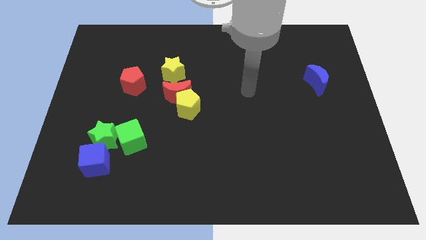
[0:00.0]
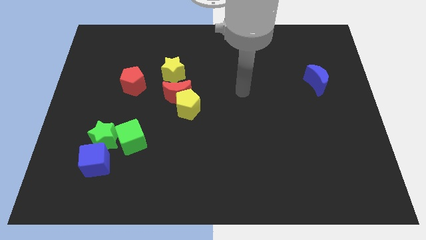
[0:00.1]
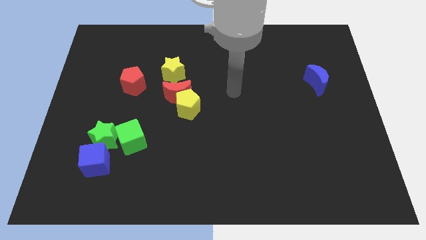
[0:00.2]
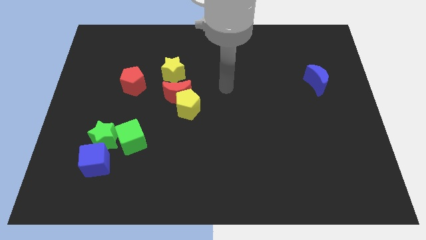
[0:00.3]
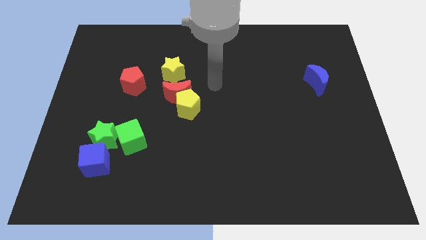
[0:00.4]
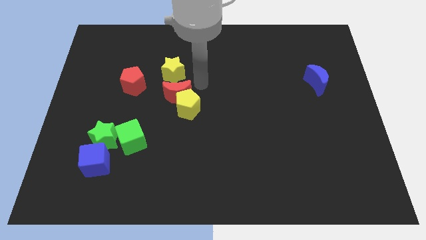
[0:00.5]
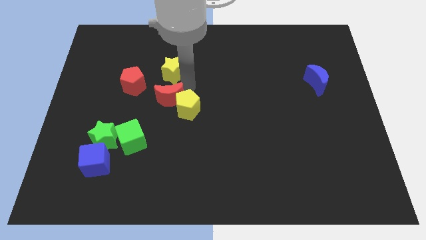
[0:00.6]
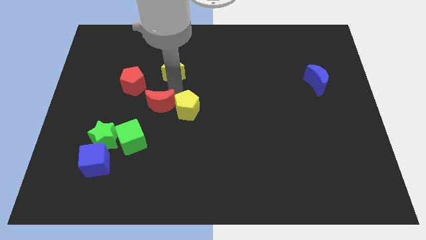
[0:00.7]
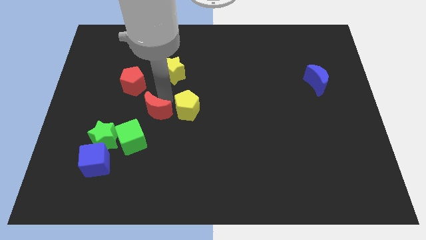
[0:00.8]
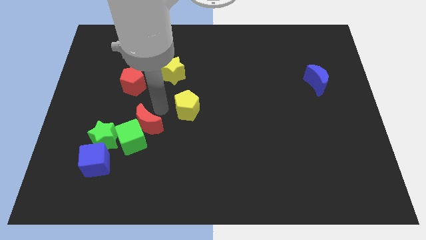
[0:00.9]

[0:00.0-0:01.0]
move the yellow pentagon away from the red moon

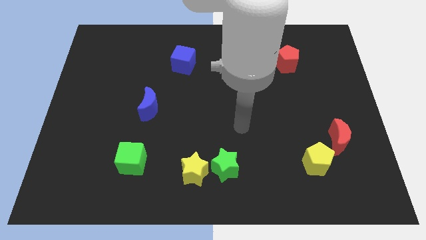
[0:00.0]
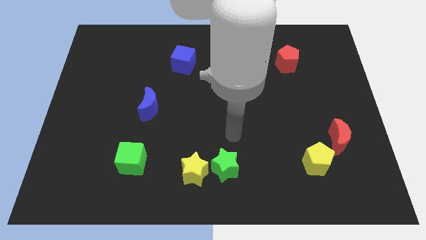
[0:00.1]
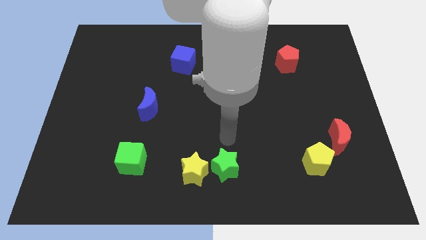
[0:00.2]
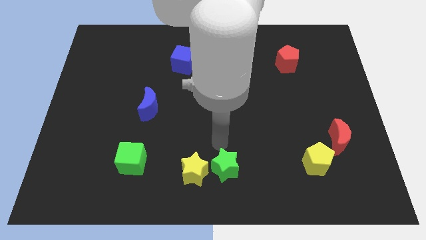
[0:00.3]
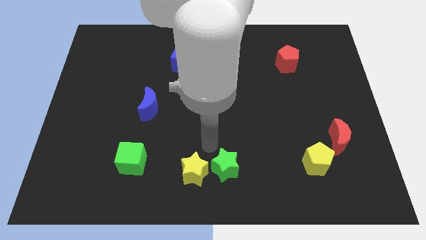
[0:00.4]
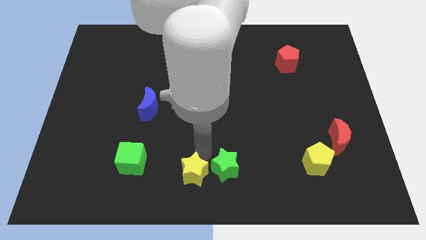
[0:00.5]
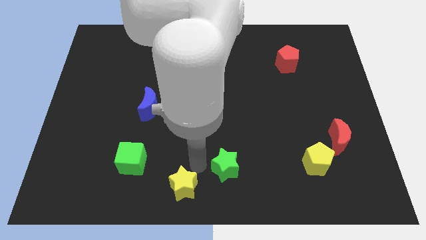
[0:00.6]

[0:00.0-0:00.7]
pull the green star apart from the yellow star

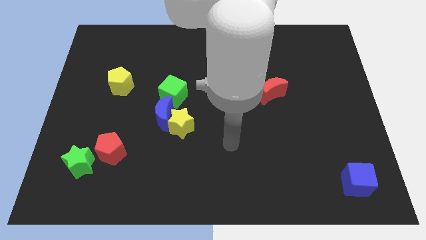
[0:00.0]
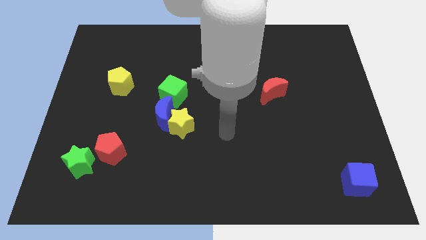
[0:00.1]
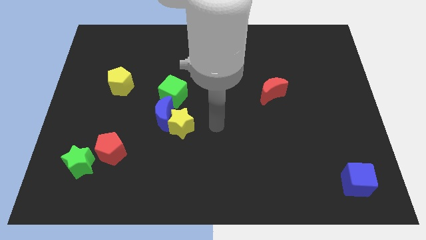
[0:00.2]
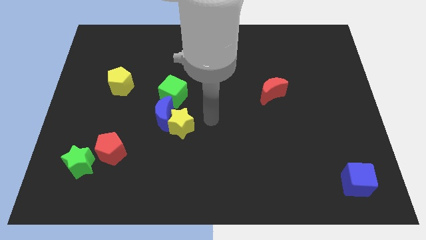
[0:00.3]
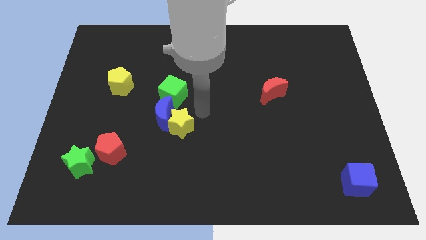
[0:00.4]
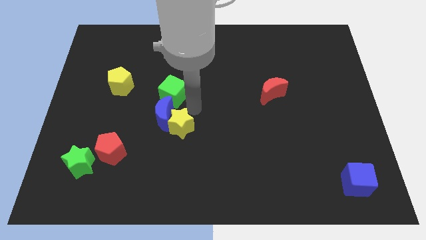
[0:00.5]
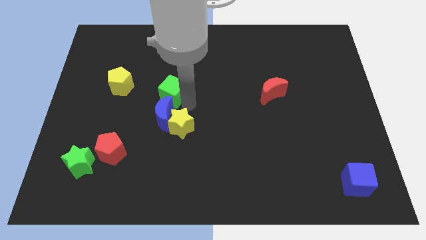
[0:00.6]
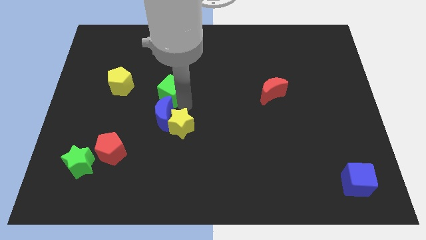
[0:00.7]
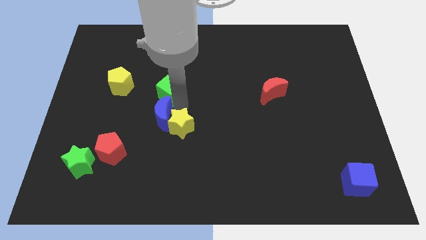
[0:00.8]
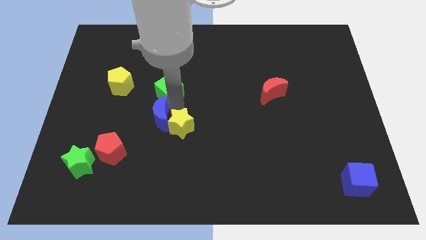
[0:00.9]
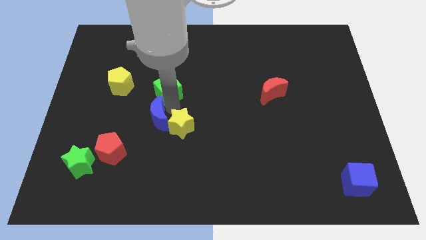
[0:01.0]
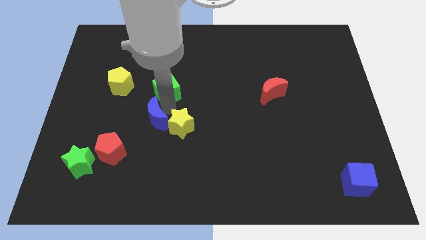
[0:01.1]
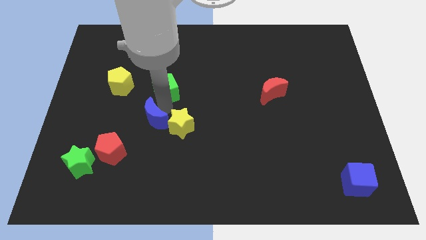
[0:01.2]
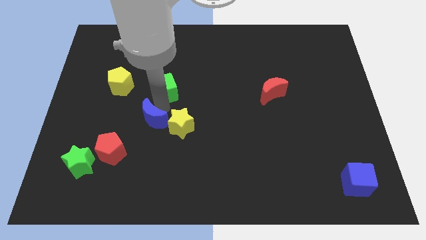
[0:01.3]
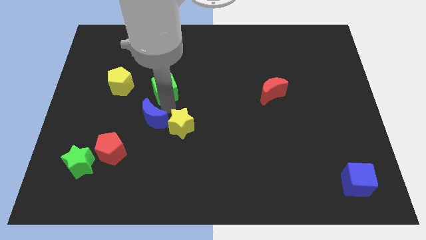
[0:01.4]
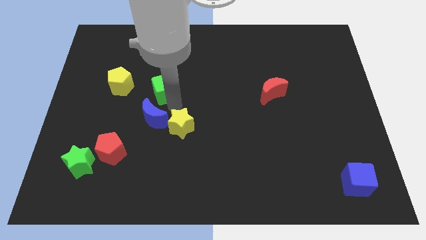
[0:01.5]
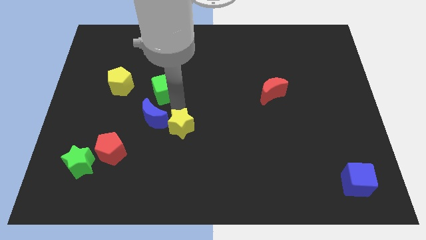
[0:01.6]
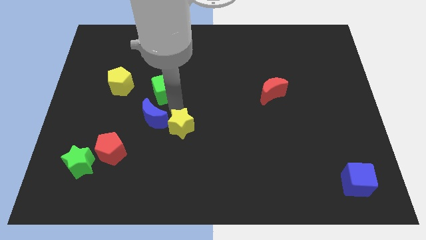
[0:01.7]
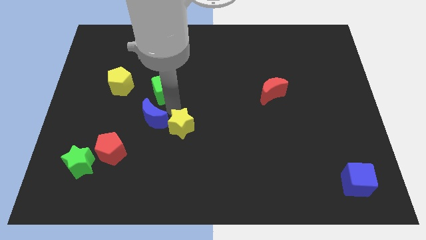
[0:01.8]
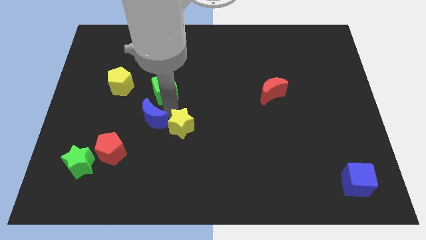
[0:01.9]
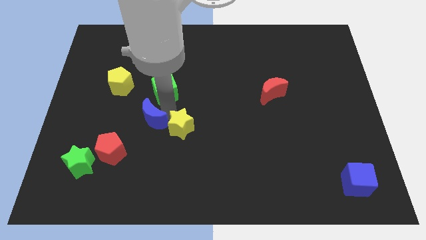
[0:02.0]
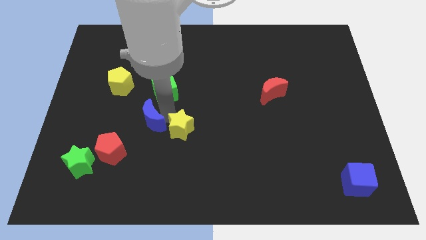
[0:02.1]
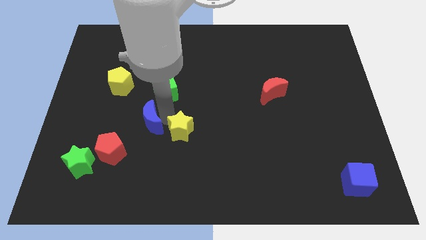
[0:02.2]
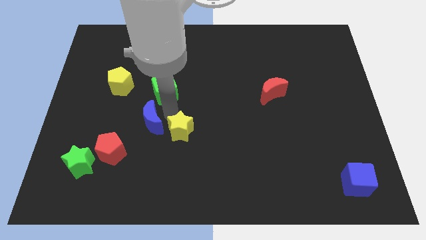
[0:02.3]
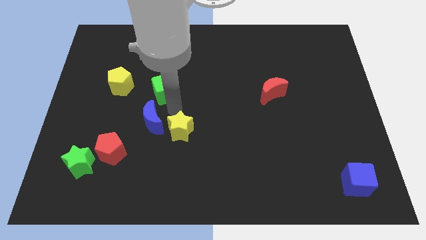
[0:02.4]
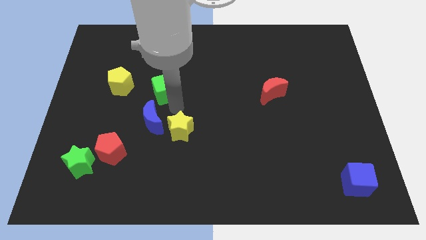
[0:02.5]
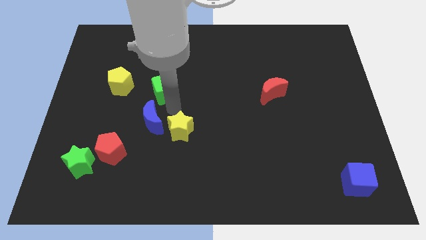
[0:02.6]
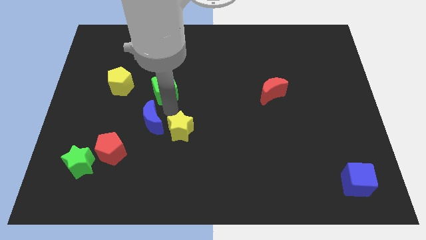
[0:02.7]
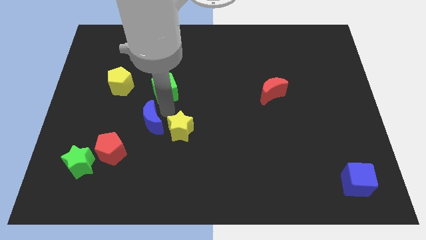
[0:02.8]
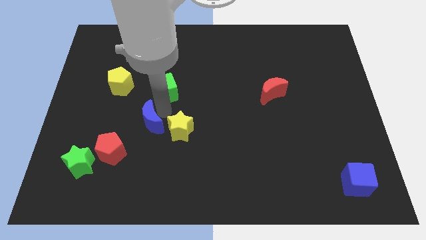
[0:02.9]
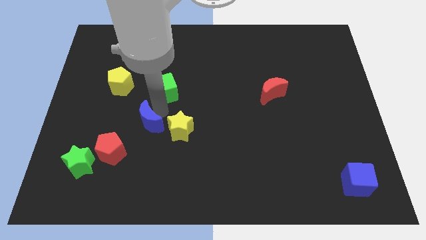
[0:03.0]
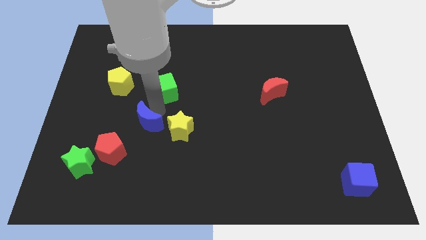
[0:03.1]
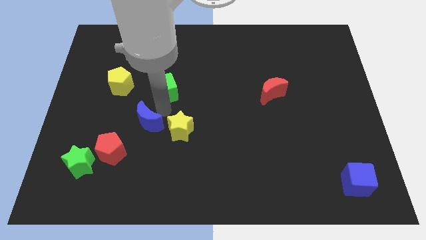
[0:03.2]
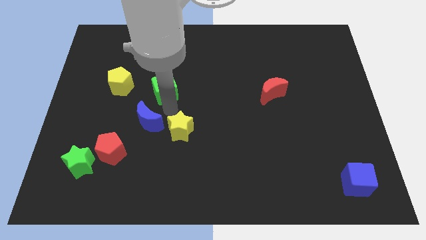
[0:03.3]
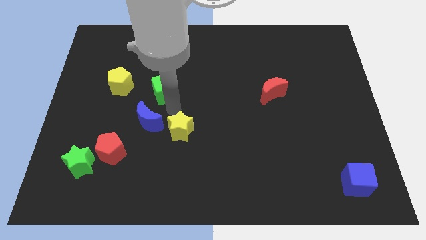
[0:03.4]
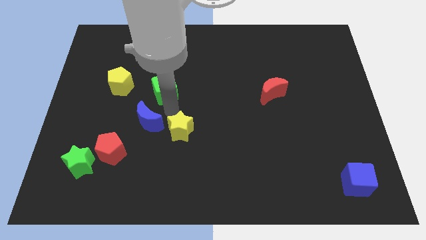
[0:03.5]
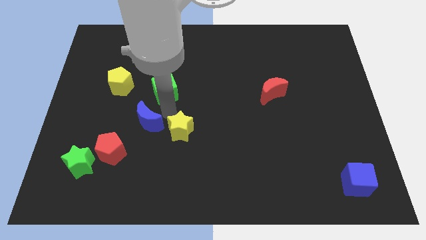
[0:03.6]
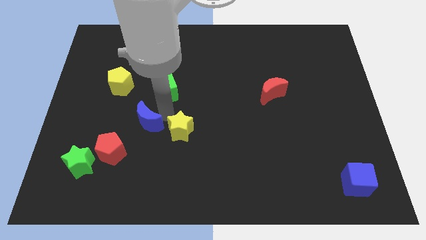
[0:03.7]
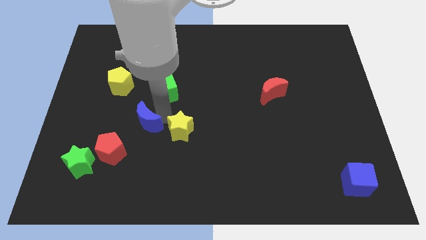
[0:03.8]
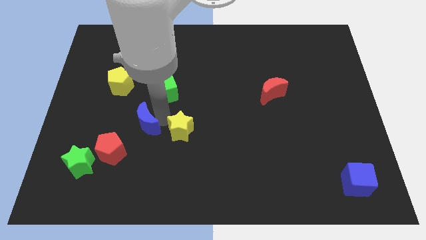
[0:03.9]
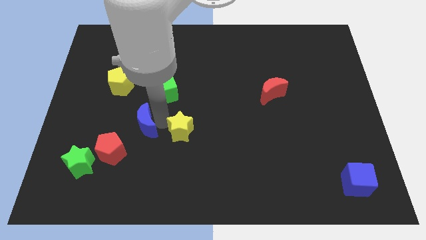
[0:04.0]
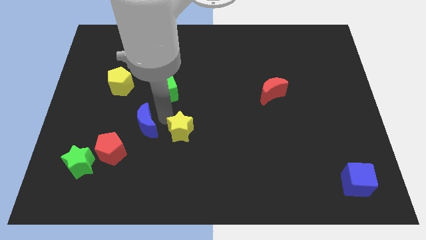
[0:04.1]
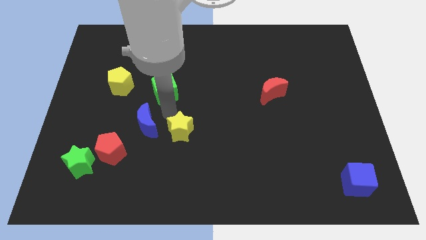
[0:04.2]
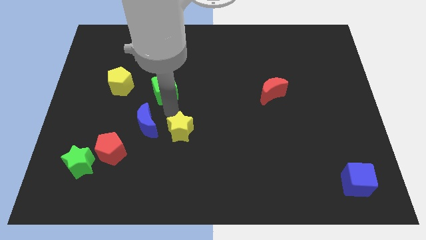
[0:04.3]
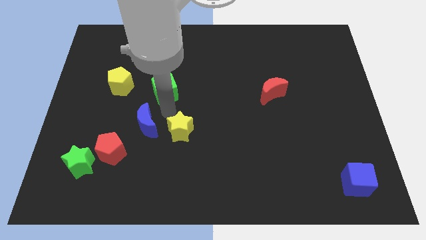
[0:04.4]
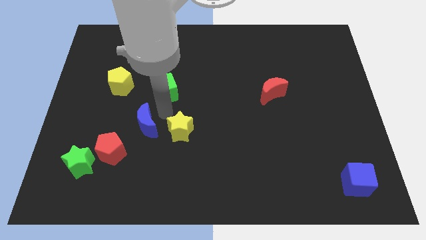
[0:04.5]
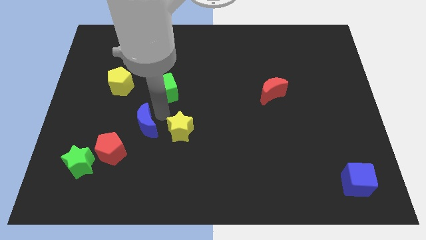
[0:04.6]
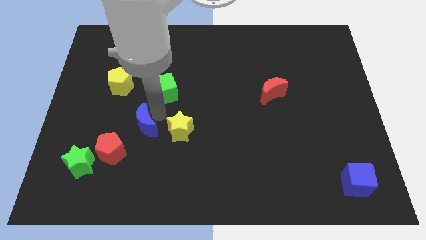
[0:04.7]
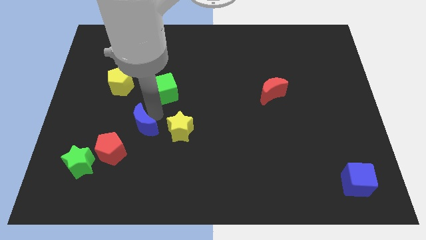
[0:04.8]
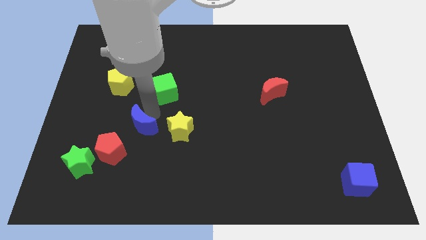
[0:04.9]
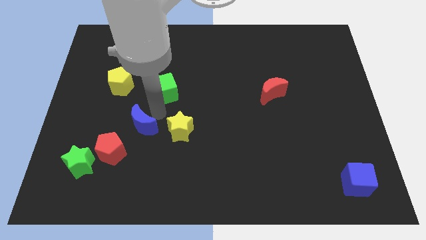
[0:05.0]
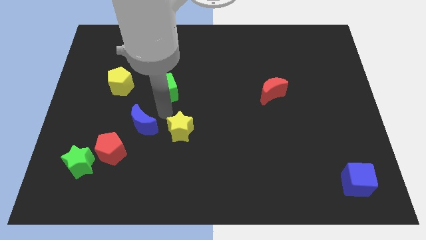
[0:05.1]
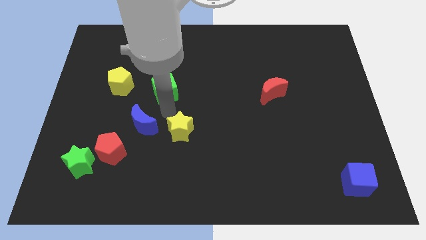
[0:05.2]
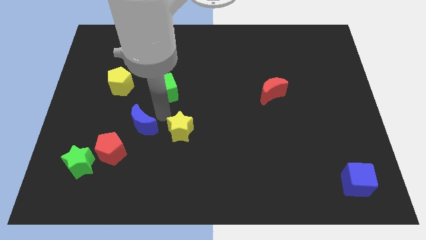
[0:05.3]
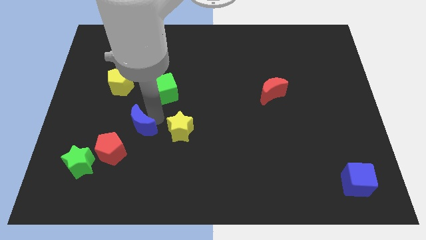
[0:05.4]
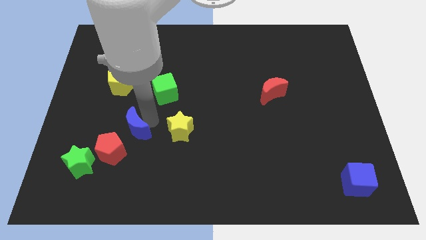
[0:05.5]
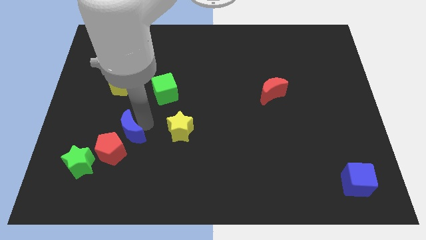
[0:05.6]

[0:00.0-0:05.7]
move the blue moon away from the yellow star and green cube

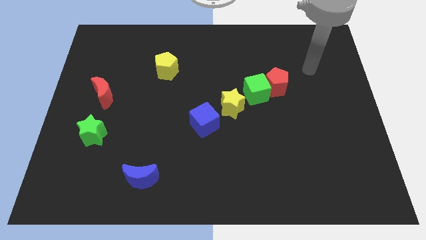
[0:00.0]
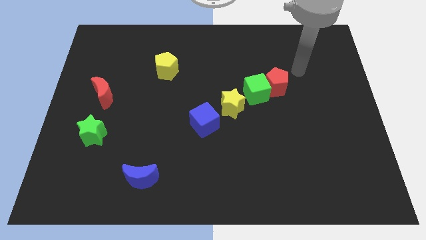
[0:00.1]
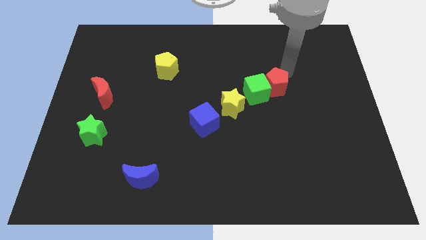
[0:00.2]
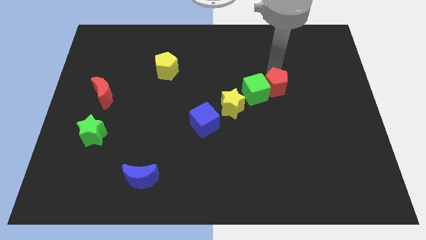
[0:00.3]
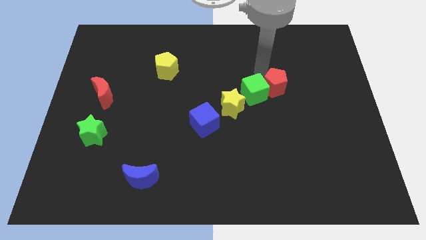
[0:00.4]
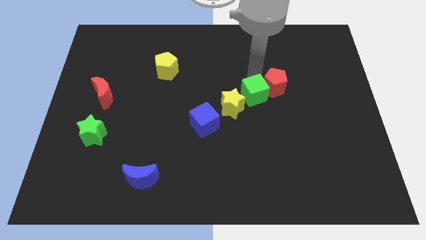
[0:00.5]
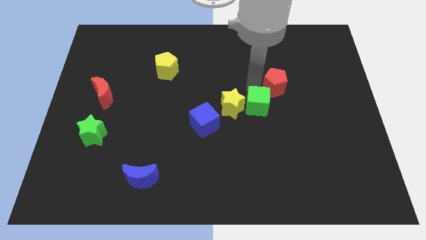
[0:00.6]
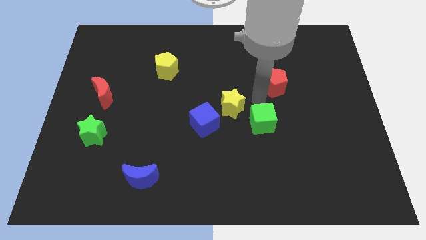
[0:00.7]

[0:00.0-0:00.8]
pull the red pentagon apart from the green cube

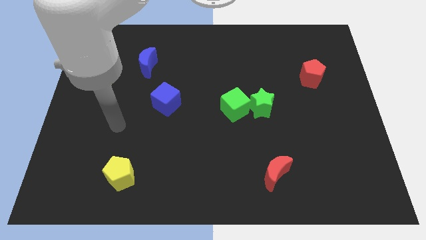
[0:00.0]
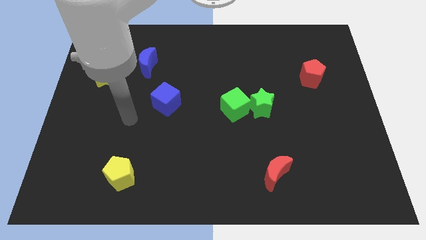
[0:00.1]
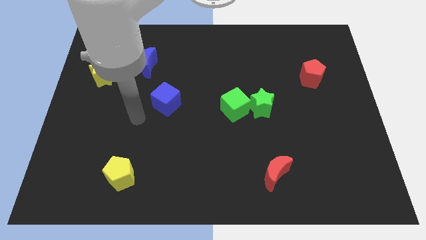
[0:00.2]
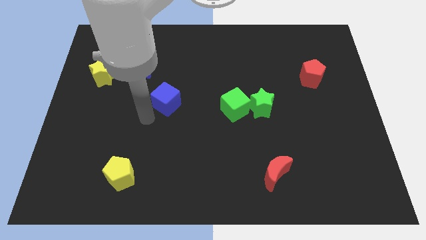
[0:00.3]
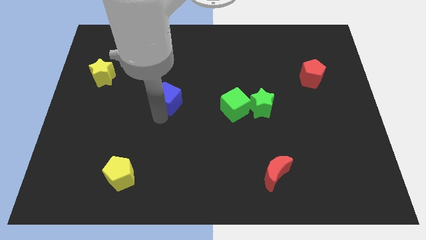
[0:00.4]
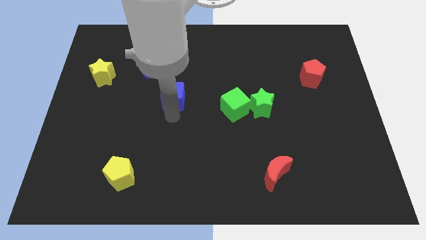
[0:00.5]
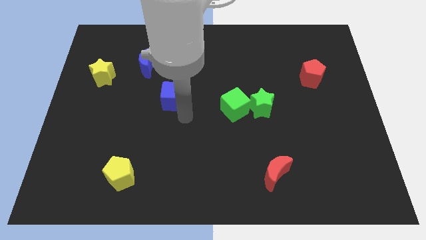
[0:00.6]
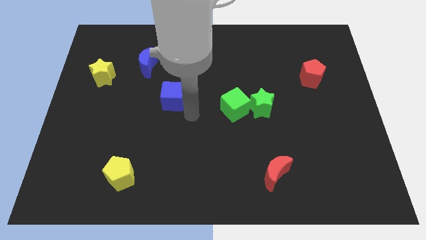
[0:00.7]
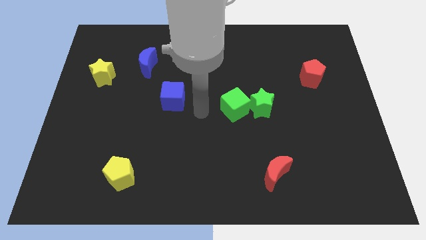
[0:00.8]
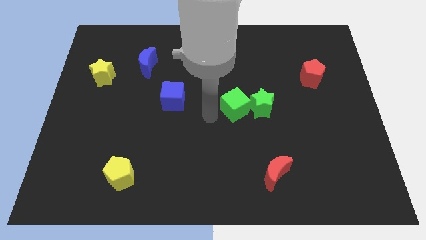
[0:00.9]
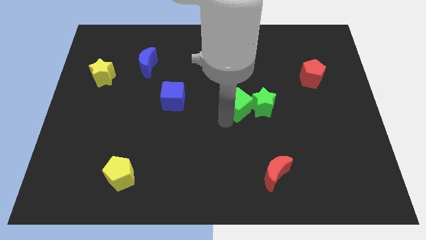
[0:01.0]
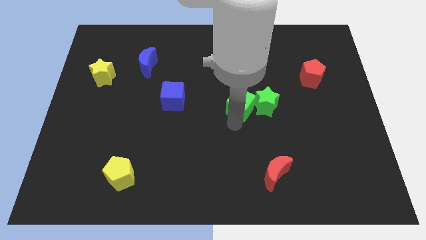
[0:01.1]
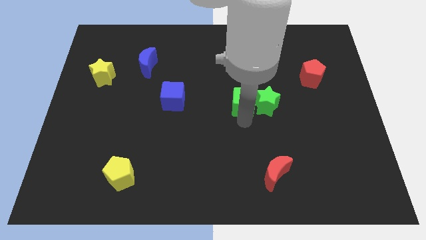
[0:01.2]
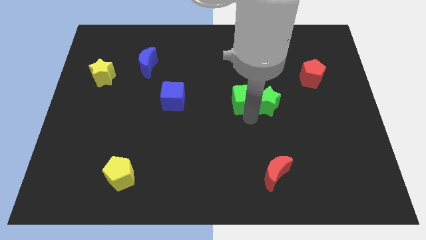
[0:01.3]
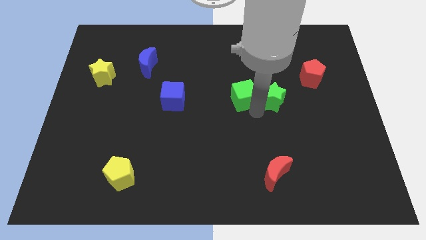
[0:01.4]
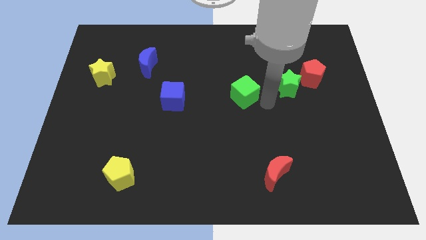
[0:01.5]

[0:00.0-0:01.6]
separate the green cube from the green star
